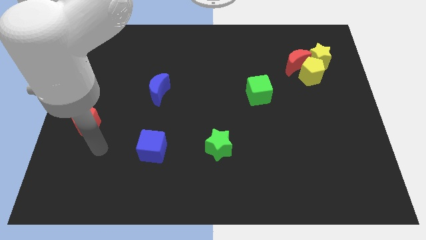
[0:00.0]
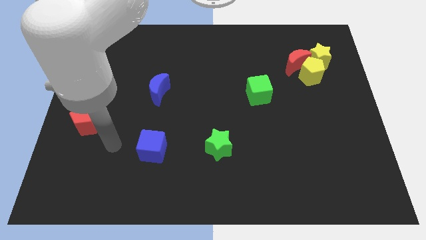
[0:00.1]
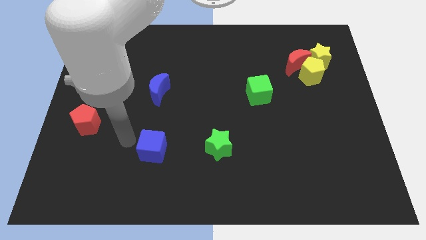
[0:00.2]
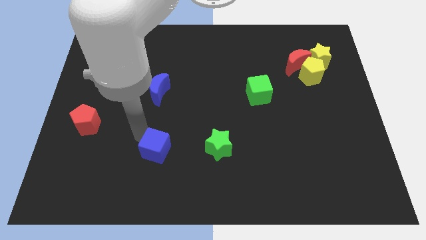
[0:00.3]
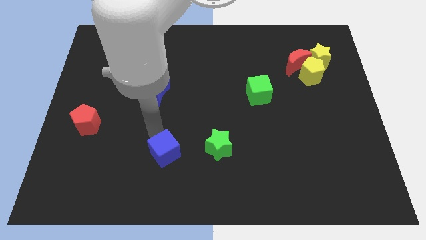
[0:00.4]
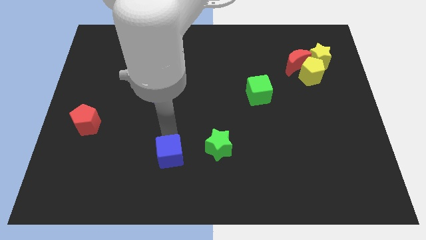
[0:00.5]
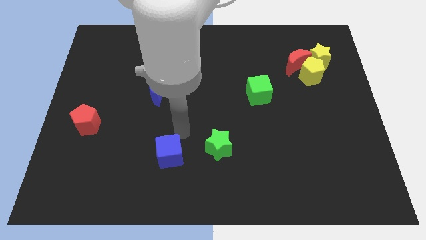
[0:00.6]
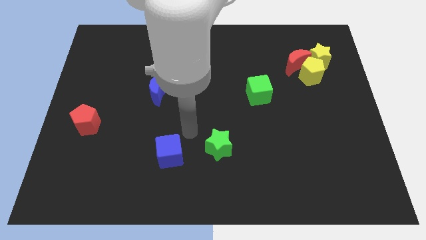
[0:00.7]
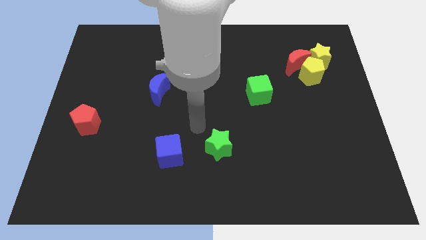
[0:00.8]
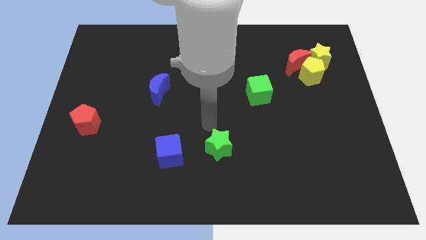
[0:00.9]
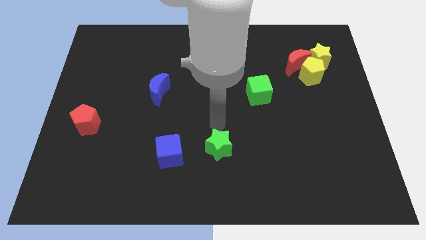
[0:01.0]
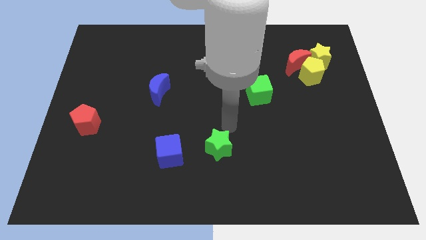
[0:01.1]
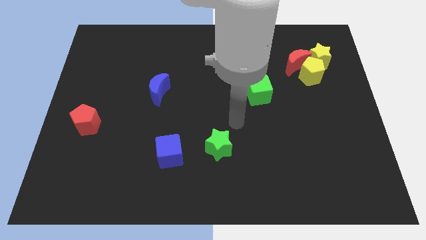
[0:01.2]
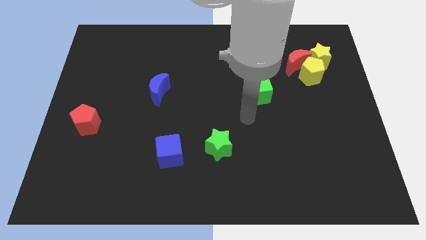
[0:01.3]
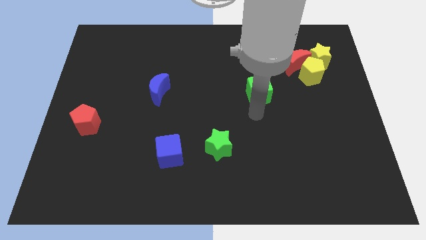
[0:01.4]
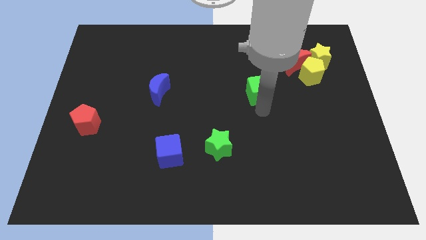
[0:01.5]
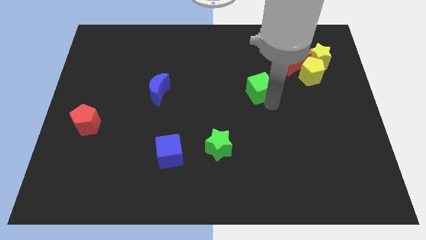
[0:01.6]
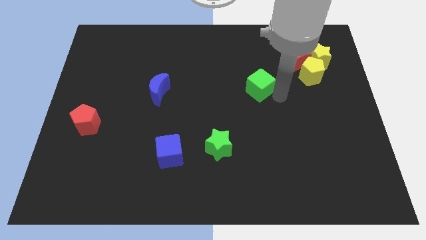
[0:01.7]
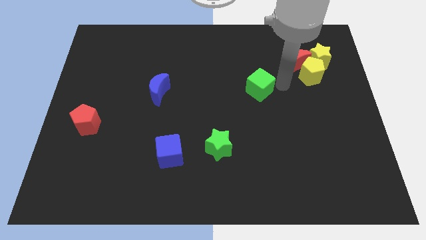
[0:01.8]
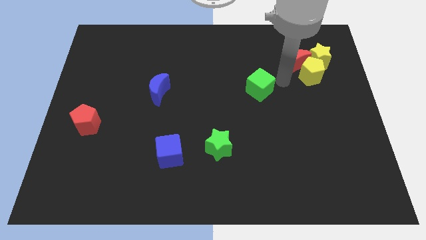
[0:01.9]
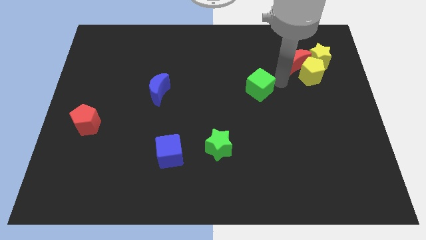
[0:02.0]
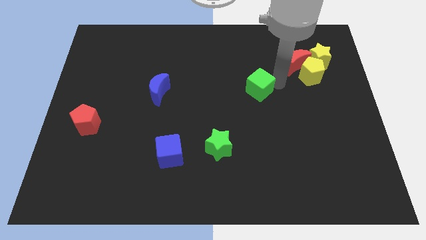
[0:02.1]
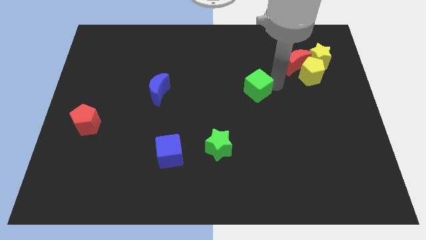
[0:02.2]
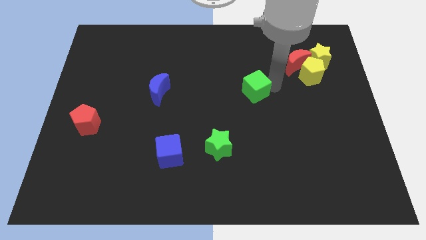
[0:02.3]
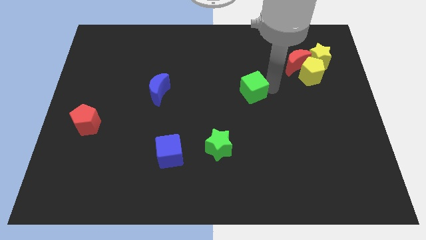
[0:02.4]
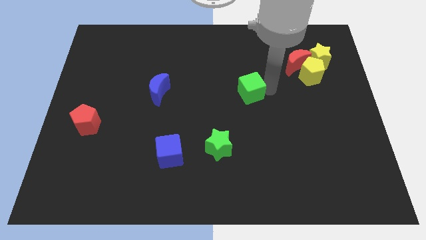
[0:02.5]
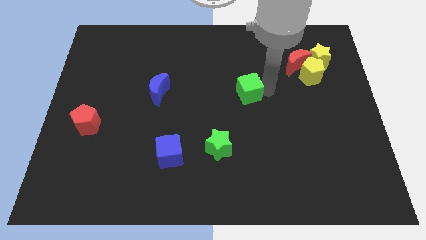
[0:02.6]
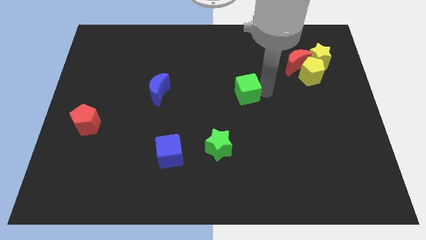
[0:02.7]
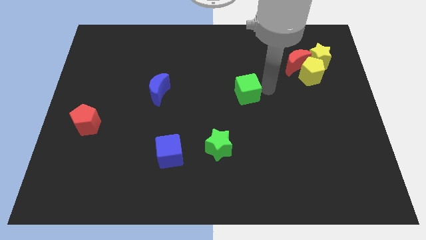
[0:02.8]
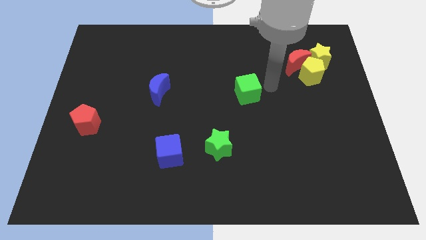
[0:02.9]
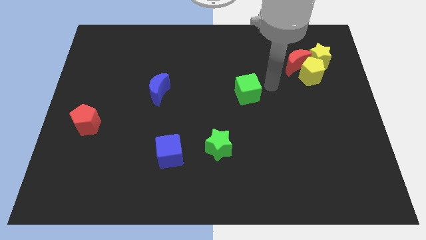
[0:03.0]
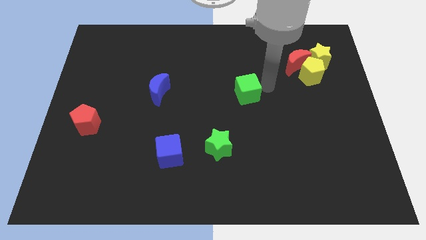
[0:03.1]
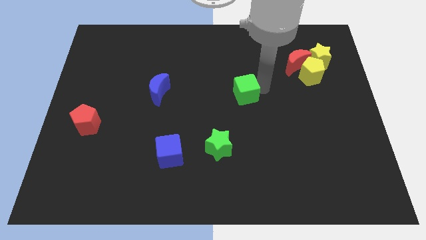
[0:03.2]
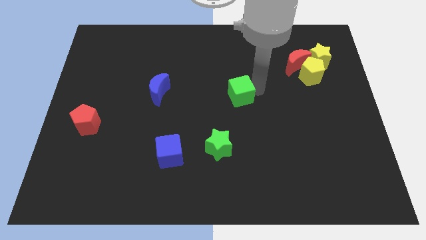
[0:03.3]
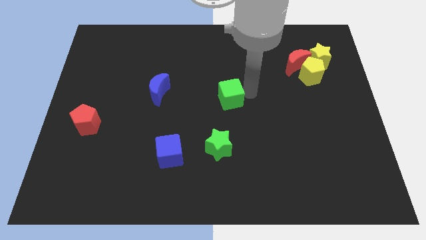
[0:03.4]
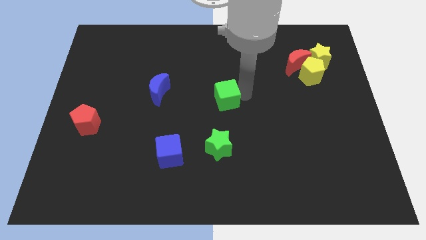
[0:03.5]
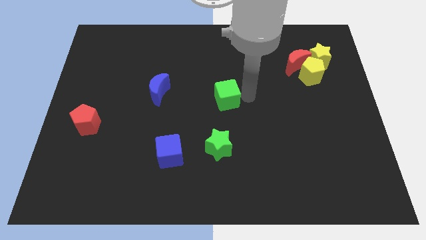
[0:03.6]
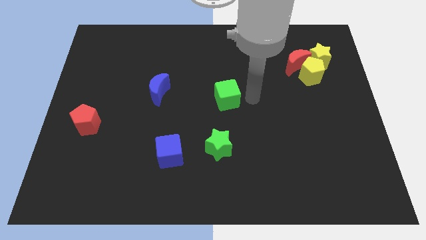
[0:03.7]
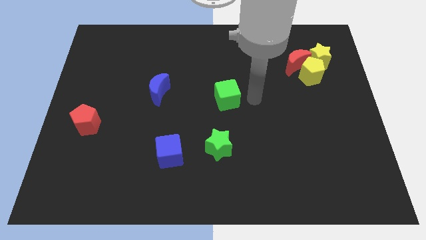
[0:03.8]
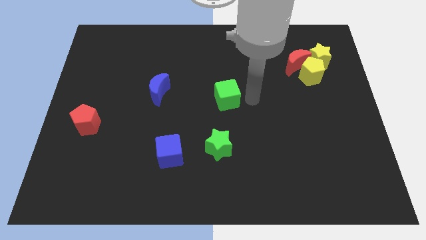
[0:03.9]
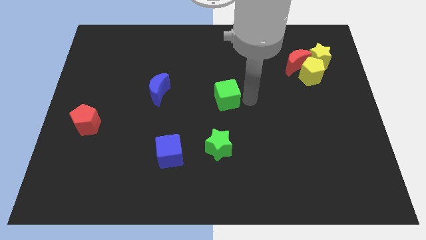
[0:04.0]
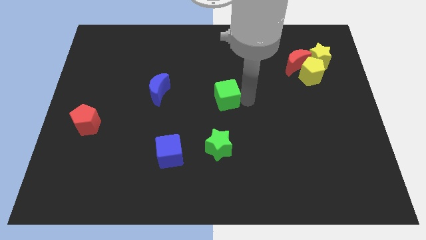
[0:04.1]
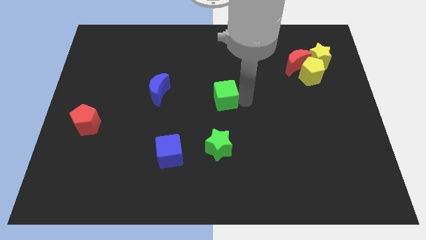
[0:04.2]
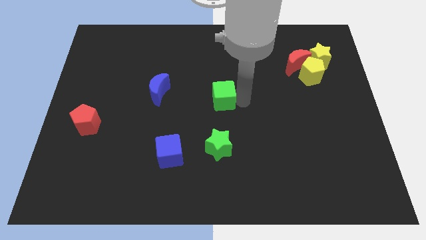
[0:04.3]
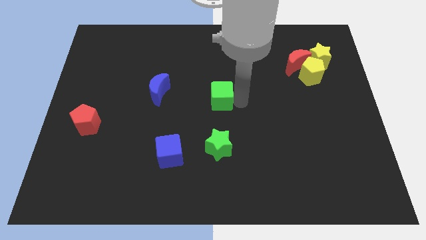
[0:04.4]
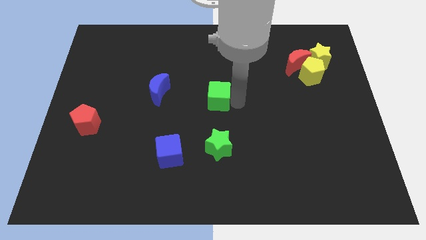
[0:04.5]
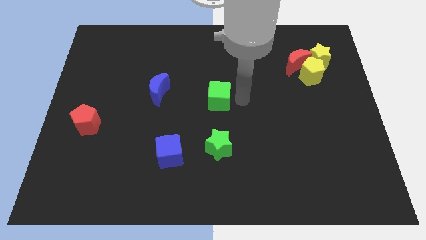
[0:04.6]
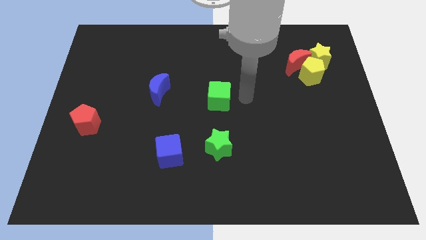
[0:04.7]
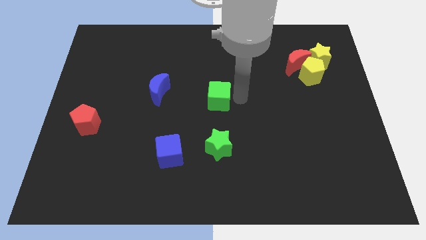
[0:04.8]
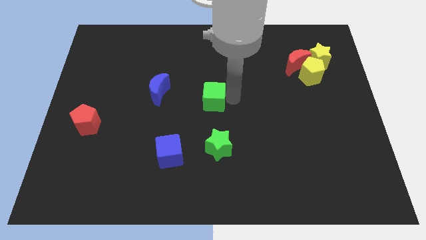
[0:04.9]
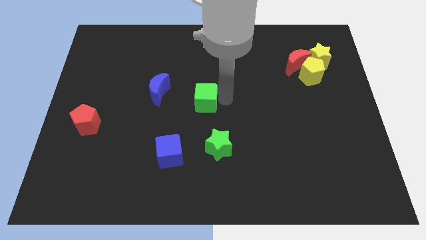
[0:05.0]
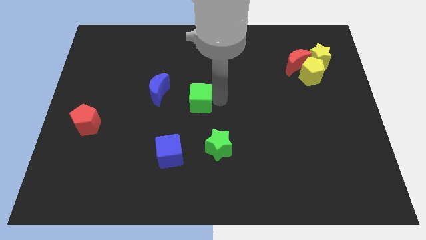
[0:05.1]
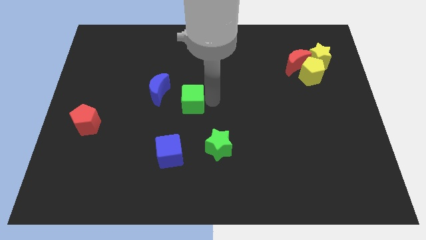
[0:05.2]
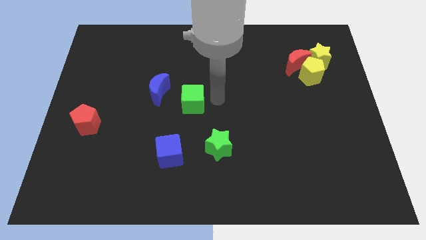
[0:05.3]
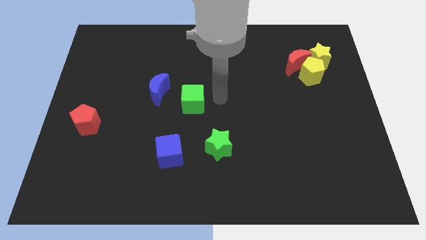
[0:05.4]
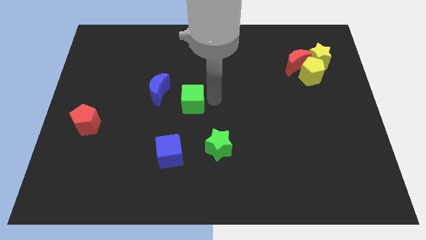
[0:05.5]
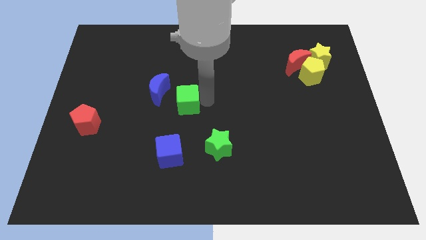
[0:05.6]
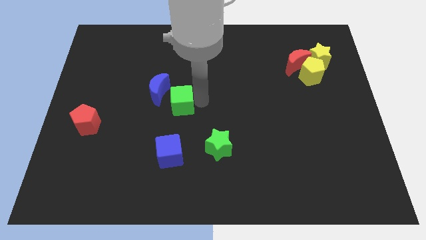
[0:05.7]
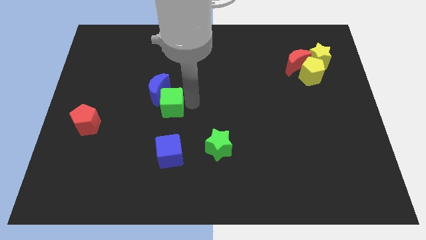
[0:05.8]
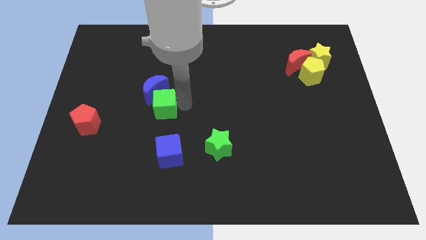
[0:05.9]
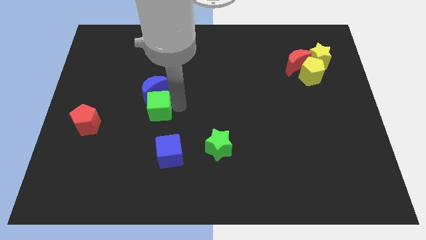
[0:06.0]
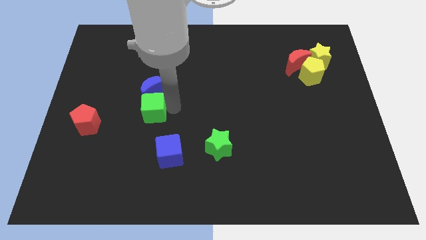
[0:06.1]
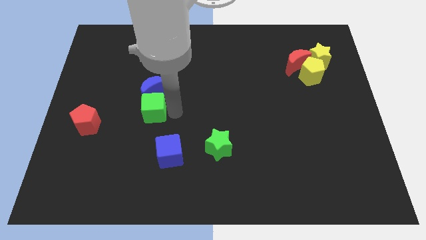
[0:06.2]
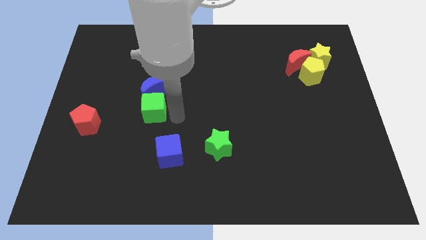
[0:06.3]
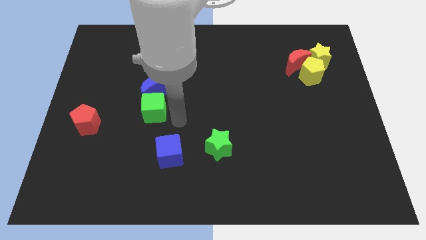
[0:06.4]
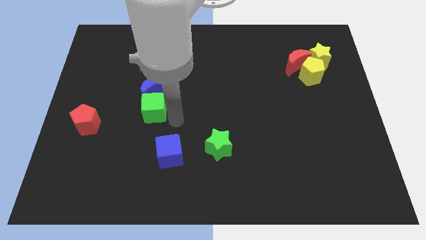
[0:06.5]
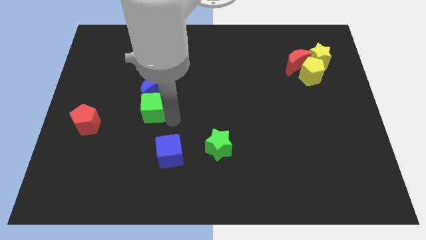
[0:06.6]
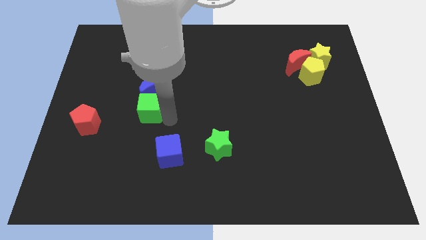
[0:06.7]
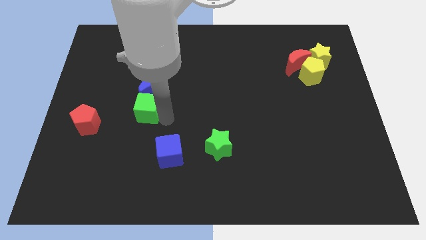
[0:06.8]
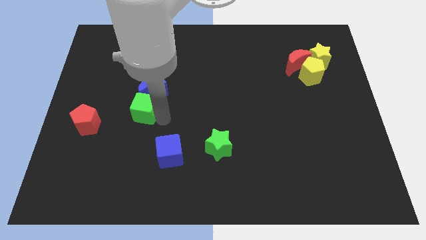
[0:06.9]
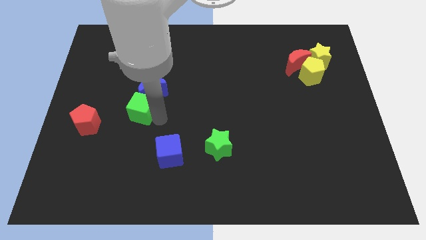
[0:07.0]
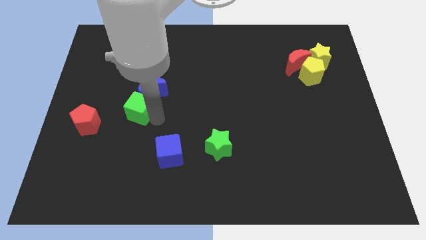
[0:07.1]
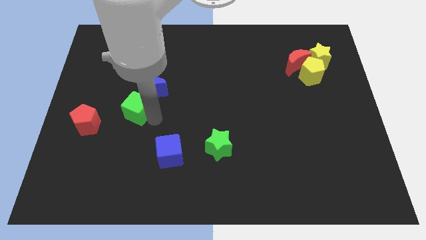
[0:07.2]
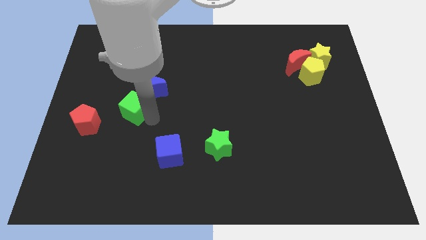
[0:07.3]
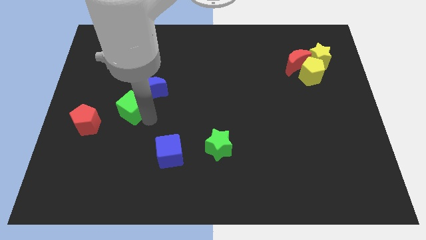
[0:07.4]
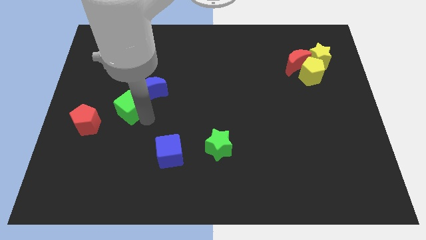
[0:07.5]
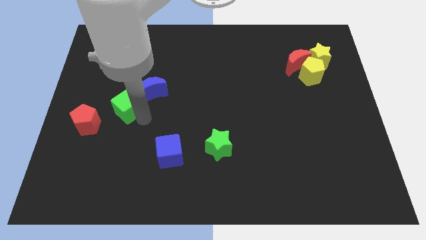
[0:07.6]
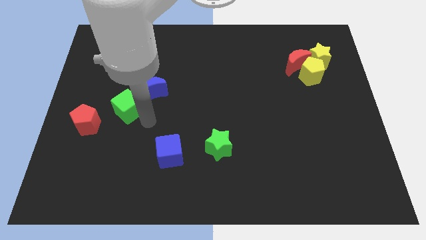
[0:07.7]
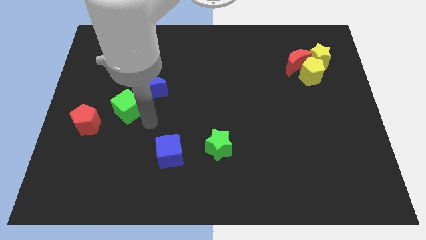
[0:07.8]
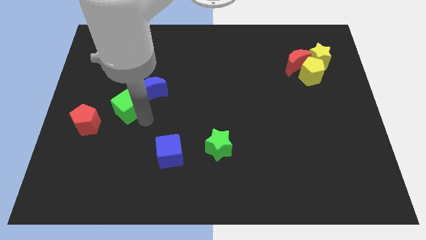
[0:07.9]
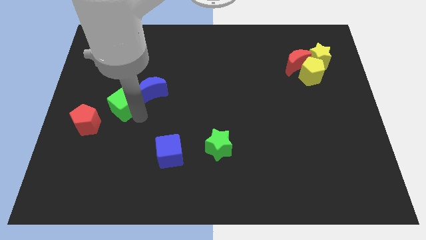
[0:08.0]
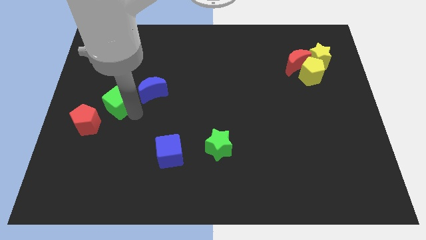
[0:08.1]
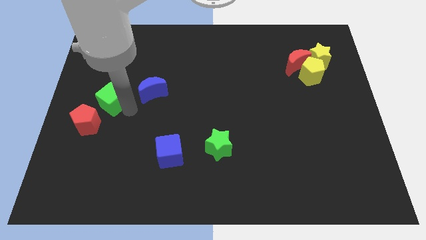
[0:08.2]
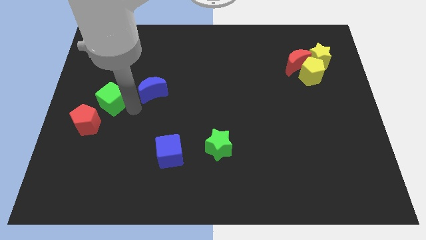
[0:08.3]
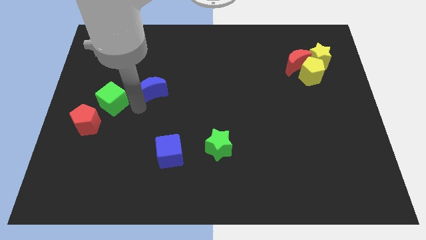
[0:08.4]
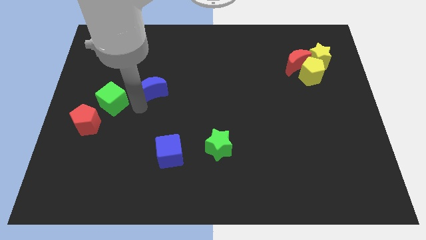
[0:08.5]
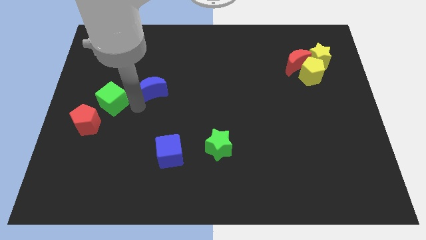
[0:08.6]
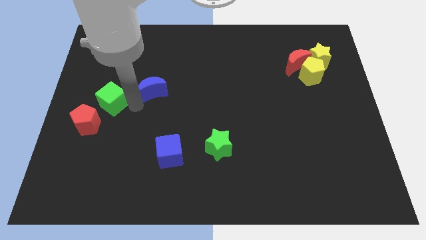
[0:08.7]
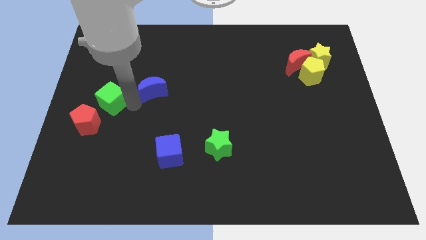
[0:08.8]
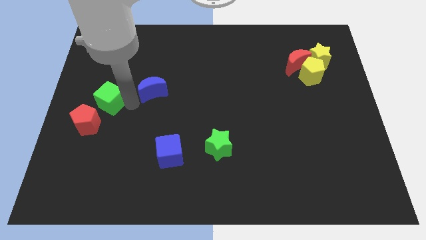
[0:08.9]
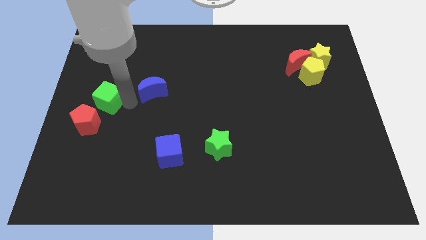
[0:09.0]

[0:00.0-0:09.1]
push the green cube to the center left
